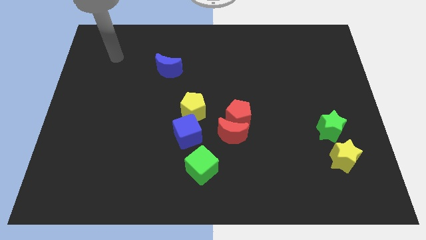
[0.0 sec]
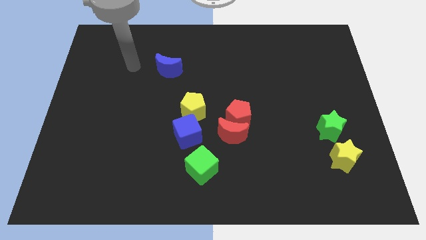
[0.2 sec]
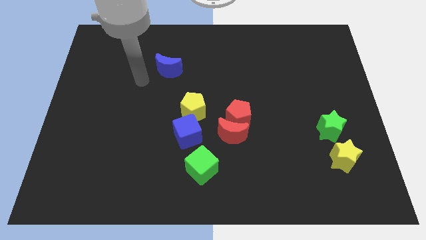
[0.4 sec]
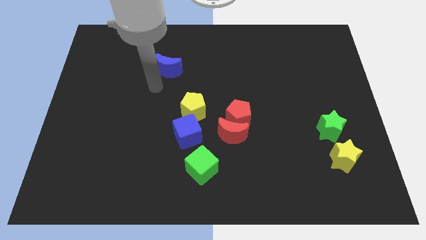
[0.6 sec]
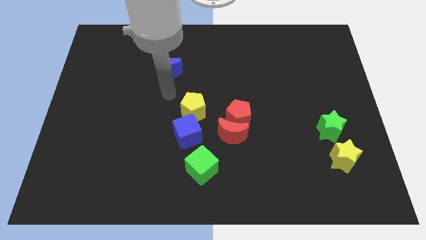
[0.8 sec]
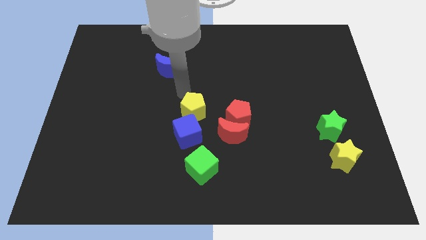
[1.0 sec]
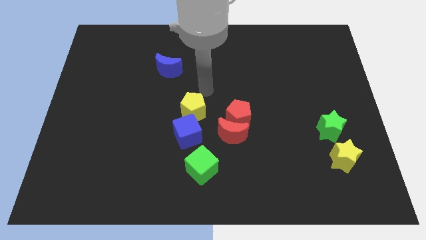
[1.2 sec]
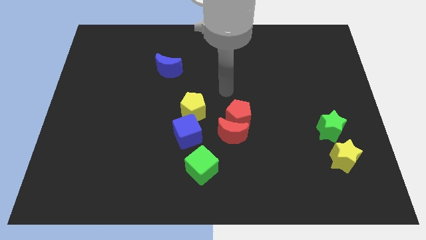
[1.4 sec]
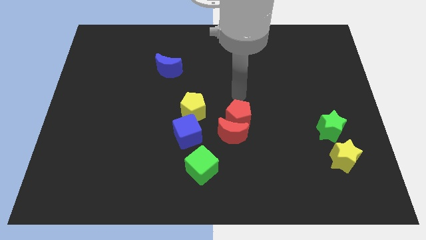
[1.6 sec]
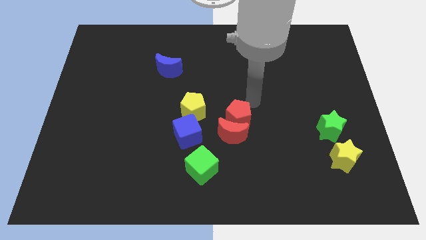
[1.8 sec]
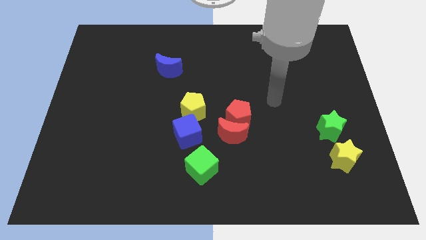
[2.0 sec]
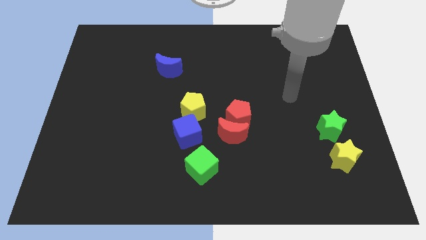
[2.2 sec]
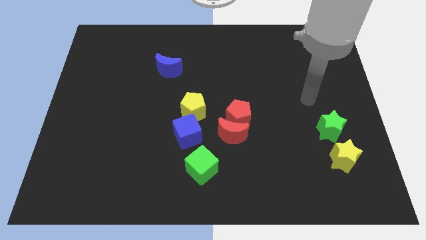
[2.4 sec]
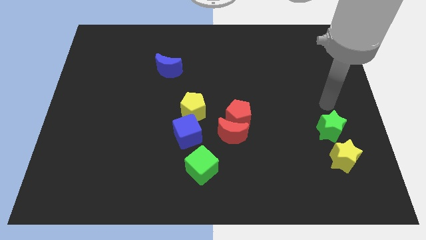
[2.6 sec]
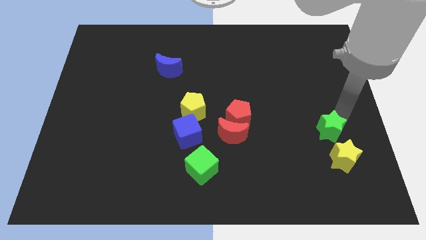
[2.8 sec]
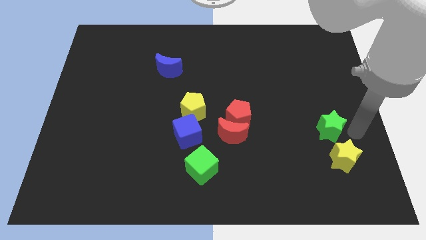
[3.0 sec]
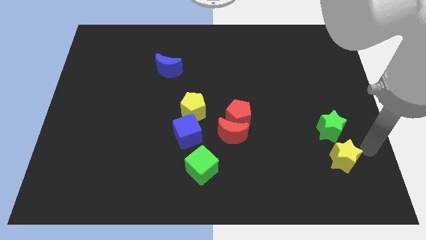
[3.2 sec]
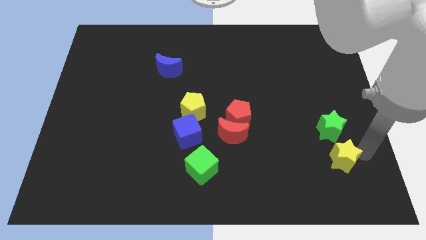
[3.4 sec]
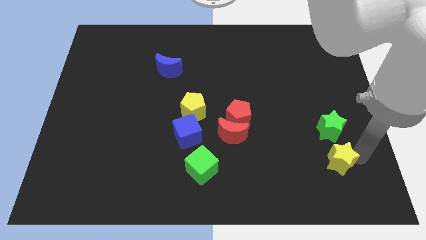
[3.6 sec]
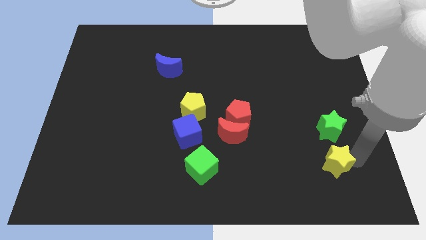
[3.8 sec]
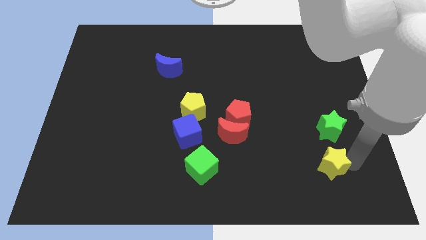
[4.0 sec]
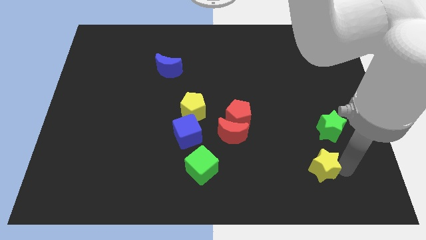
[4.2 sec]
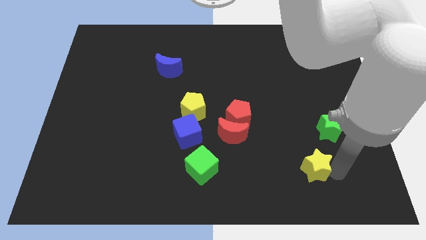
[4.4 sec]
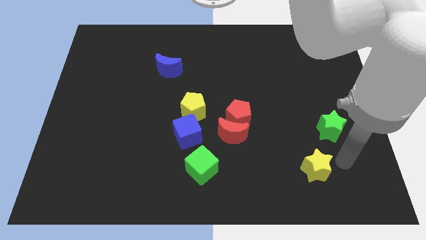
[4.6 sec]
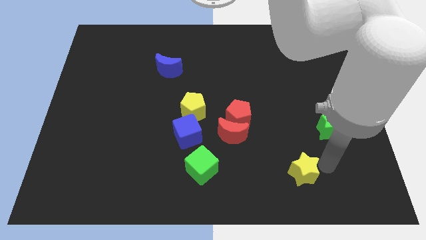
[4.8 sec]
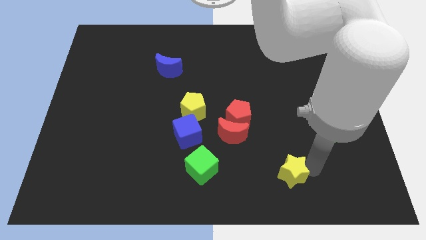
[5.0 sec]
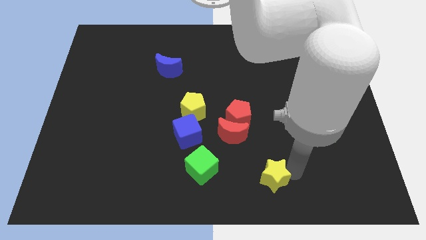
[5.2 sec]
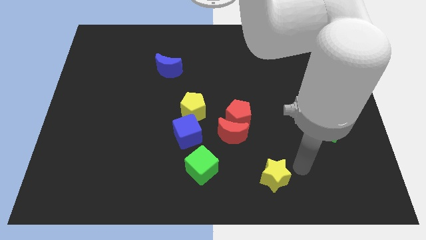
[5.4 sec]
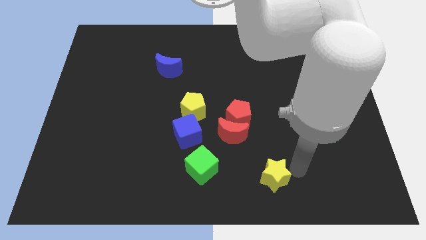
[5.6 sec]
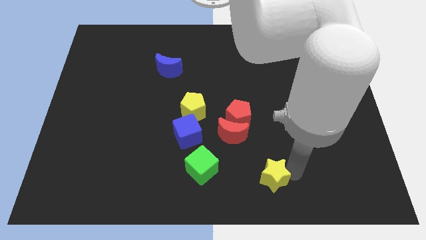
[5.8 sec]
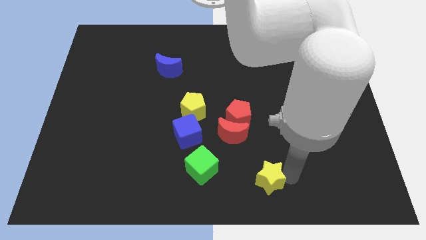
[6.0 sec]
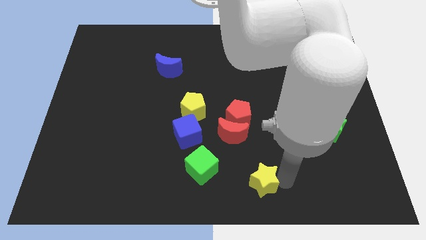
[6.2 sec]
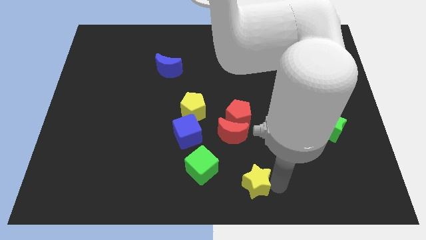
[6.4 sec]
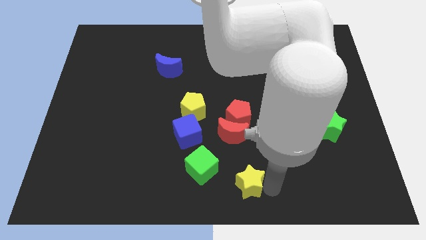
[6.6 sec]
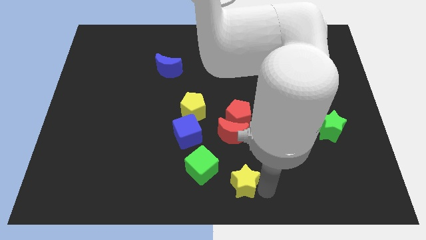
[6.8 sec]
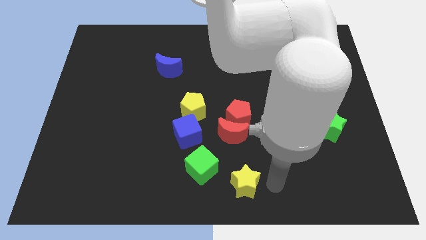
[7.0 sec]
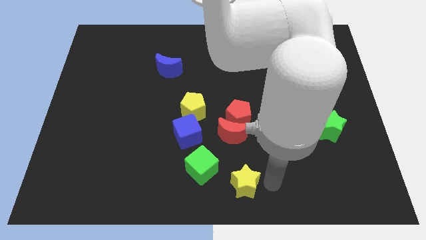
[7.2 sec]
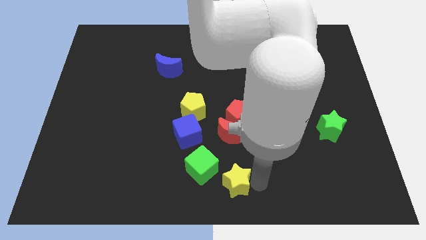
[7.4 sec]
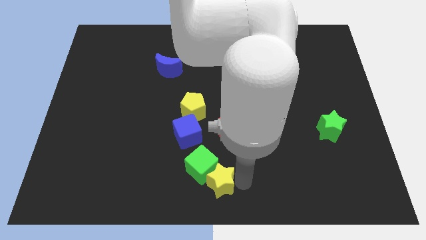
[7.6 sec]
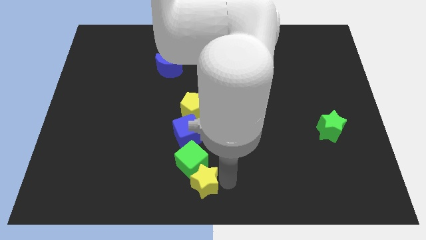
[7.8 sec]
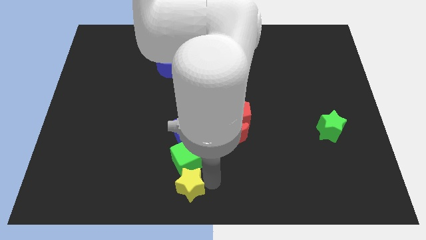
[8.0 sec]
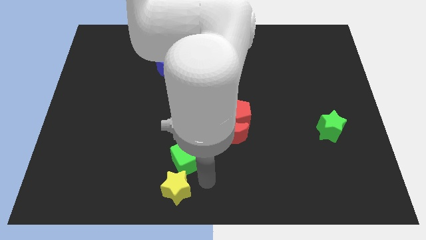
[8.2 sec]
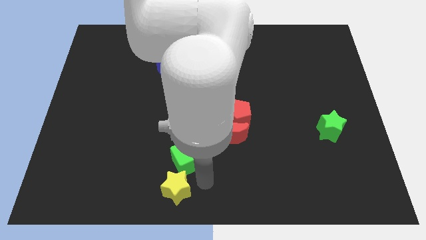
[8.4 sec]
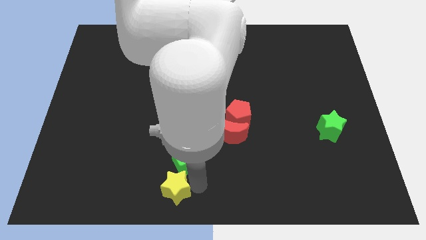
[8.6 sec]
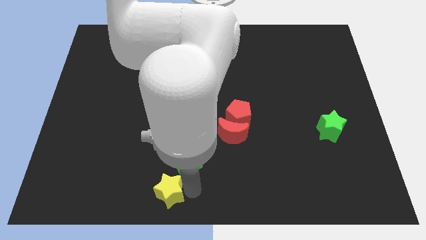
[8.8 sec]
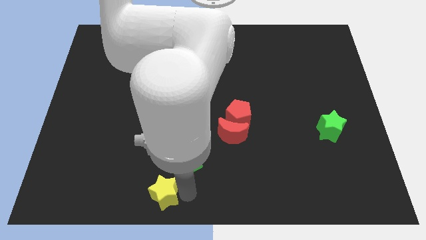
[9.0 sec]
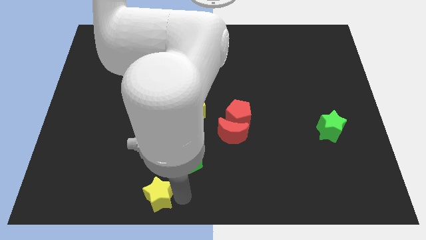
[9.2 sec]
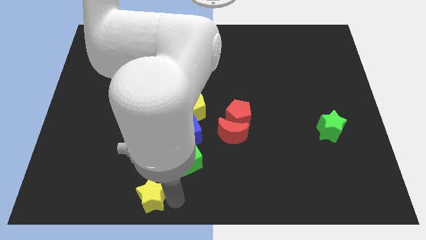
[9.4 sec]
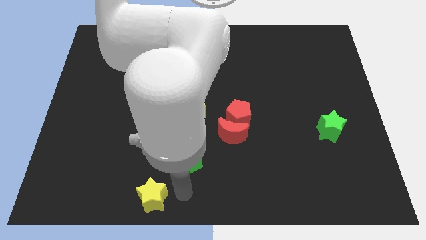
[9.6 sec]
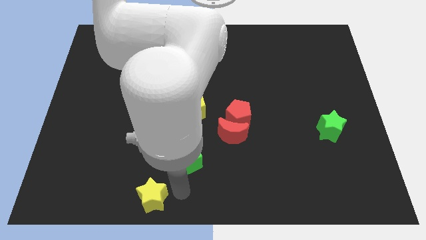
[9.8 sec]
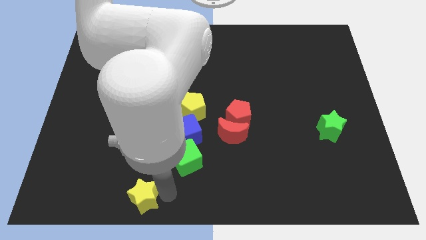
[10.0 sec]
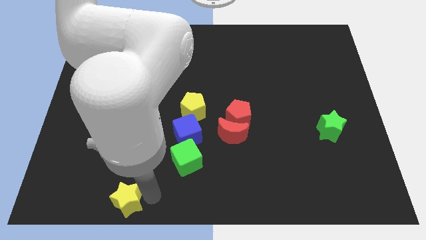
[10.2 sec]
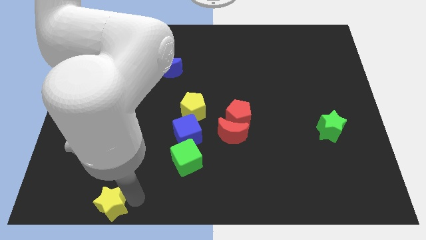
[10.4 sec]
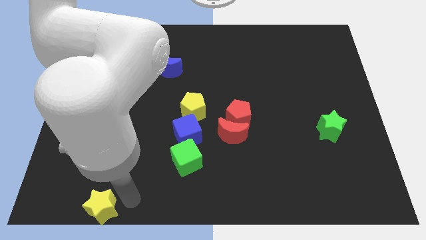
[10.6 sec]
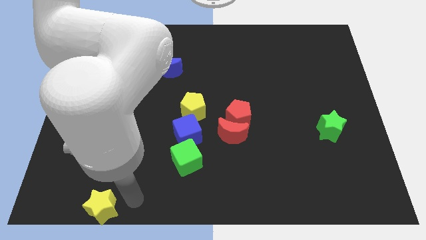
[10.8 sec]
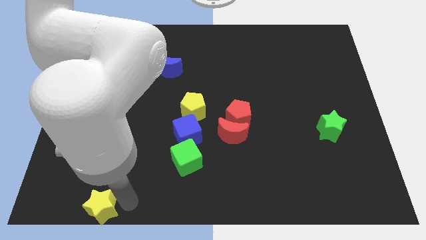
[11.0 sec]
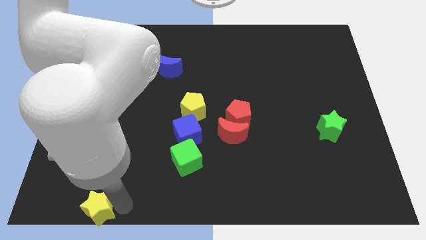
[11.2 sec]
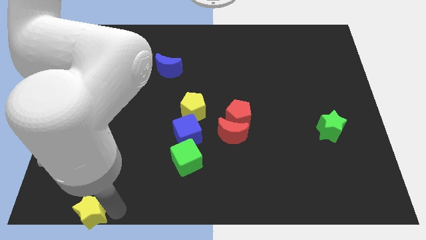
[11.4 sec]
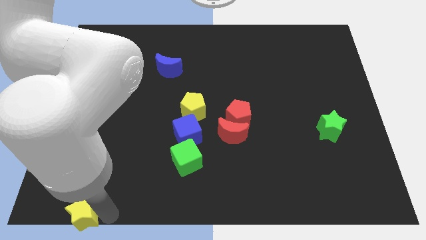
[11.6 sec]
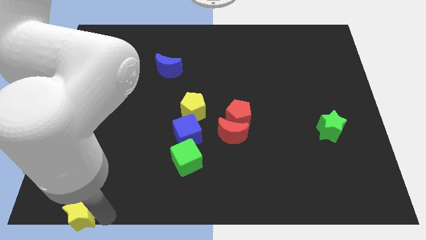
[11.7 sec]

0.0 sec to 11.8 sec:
slide the yellow star to the bottom left

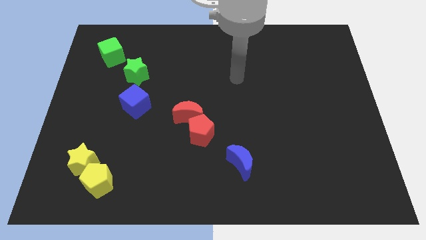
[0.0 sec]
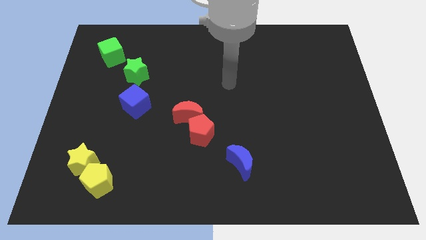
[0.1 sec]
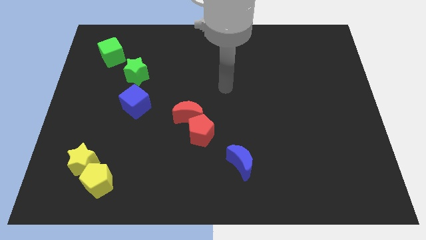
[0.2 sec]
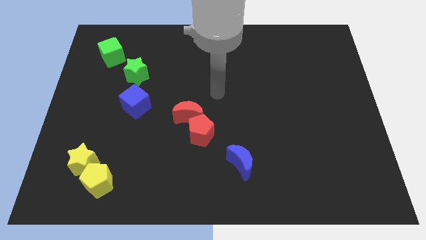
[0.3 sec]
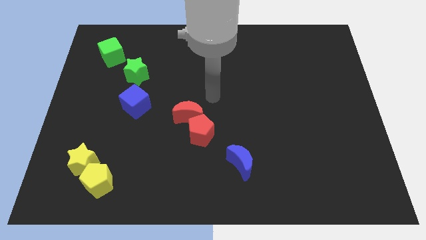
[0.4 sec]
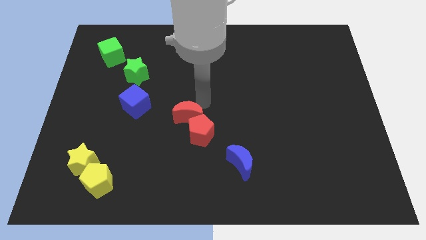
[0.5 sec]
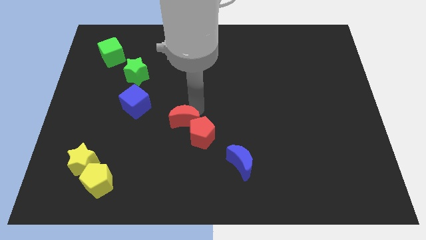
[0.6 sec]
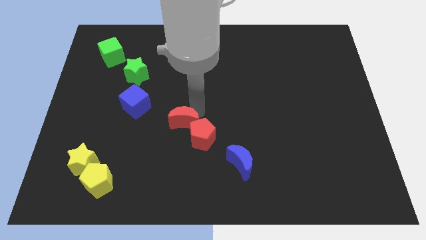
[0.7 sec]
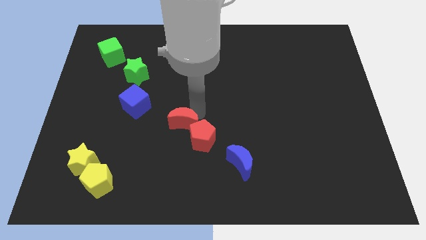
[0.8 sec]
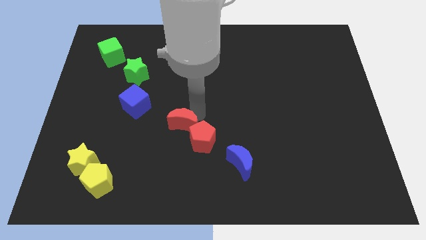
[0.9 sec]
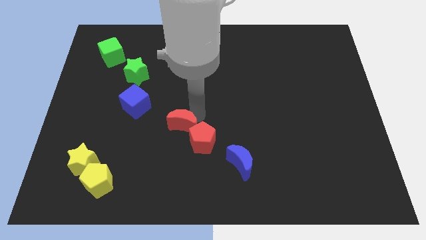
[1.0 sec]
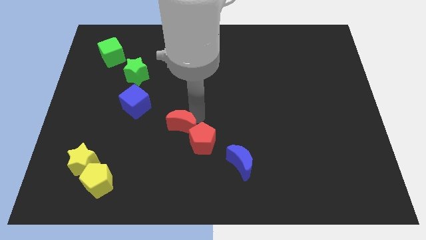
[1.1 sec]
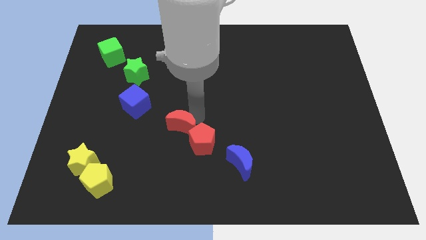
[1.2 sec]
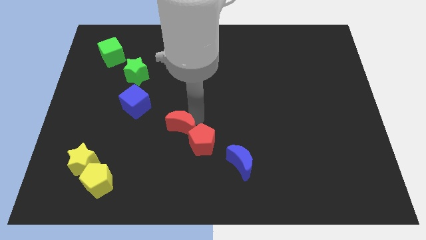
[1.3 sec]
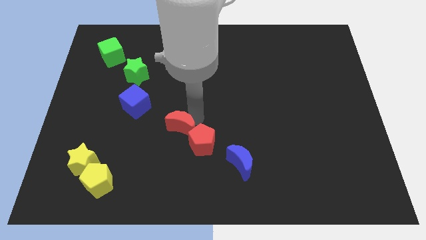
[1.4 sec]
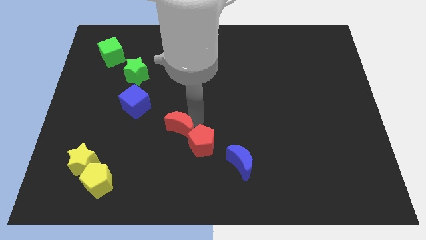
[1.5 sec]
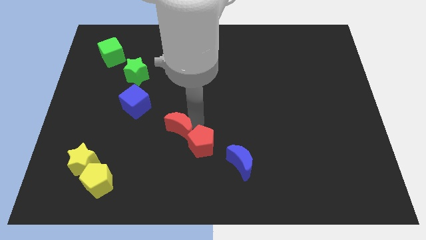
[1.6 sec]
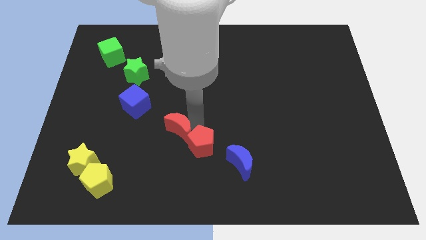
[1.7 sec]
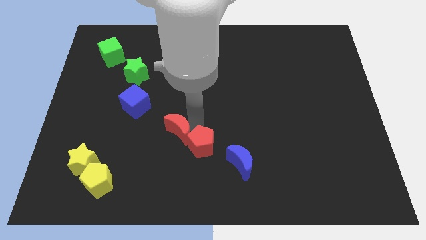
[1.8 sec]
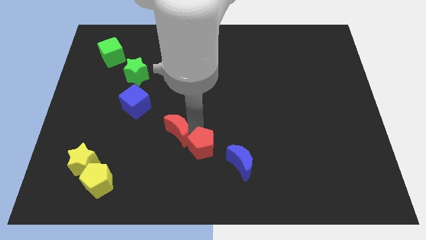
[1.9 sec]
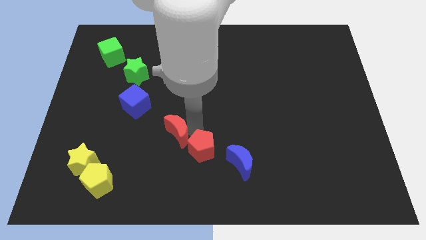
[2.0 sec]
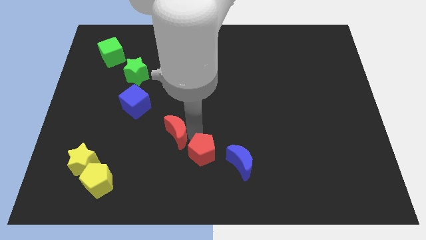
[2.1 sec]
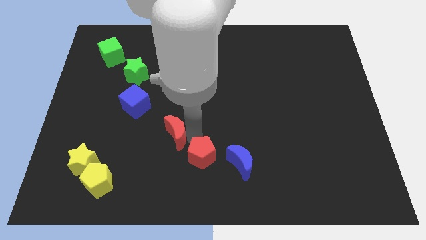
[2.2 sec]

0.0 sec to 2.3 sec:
slide the red pentagon to the bottom
